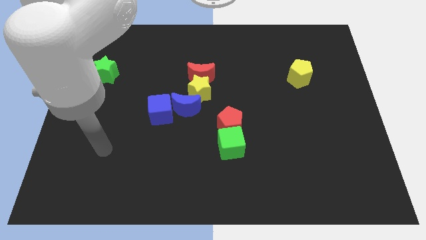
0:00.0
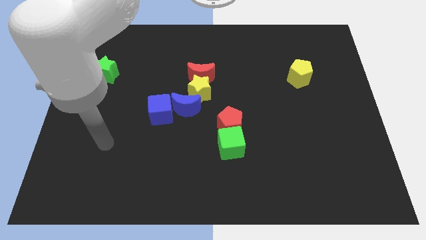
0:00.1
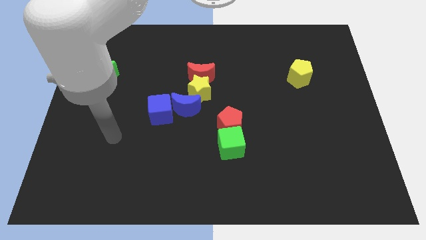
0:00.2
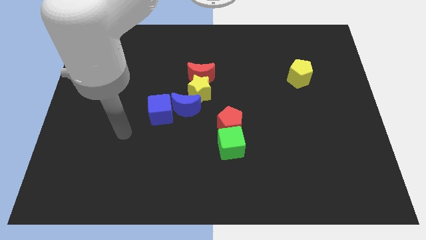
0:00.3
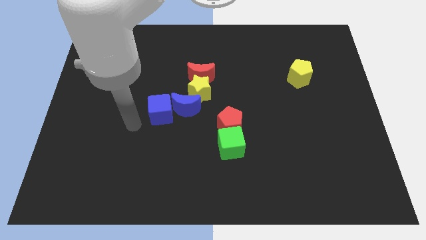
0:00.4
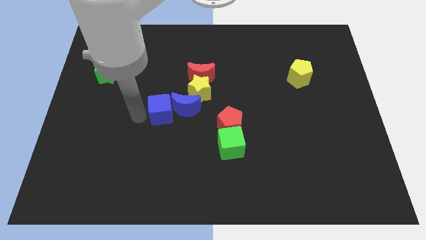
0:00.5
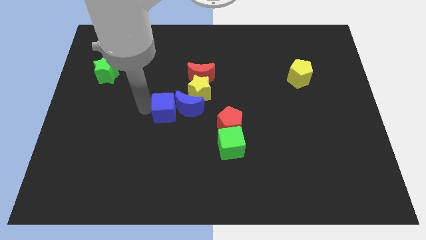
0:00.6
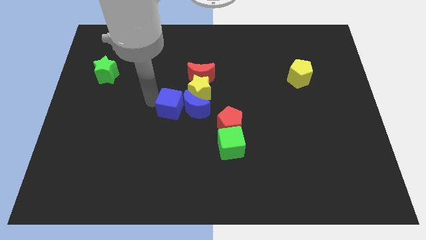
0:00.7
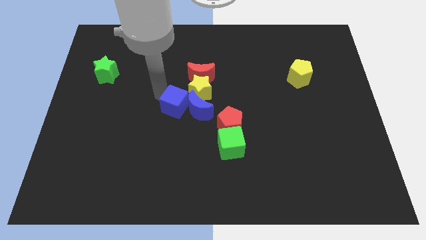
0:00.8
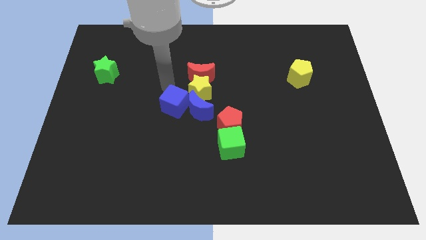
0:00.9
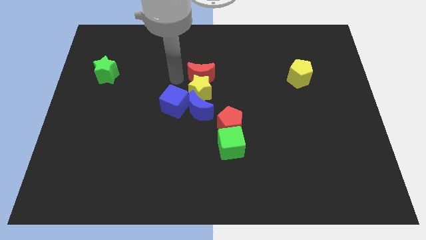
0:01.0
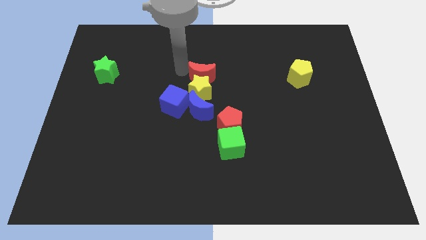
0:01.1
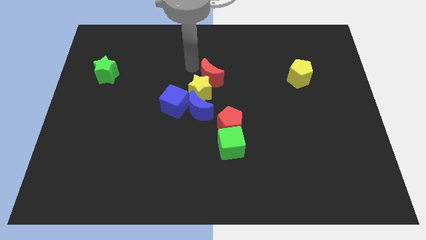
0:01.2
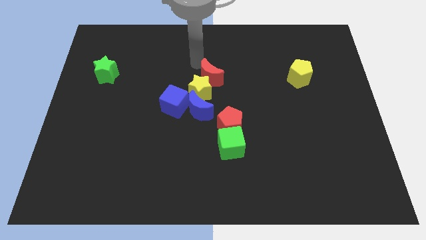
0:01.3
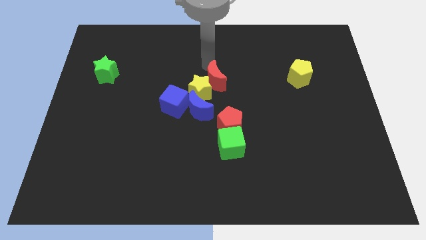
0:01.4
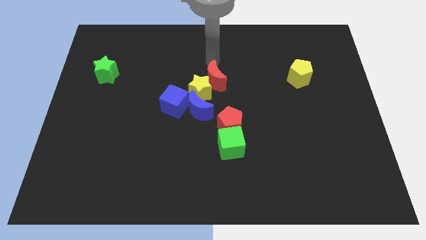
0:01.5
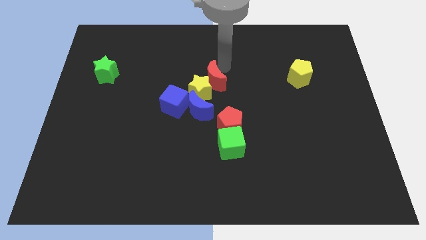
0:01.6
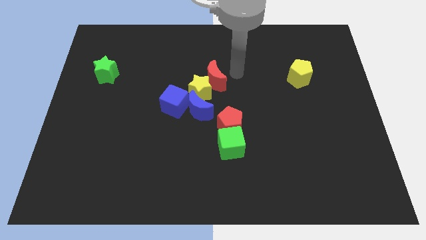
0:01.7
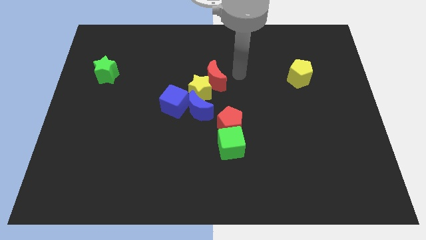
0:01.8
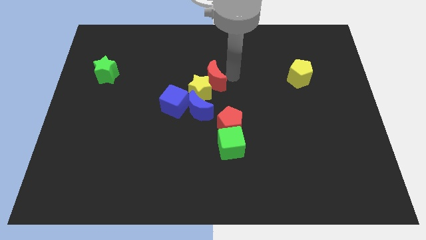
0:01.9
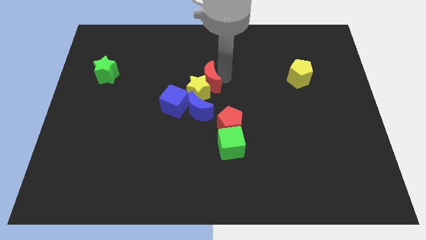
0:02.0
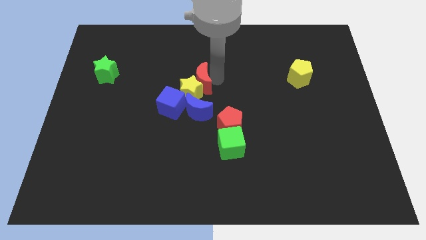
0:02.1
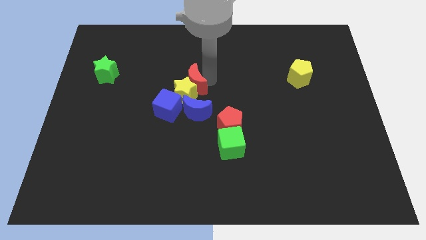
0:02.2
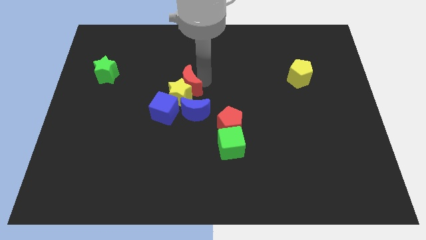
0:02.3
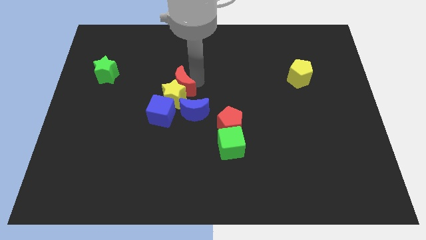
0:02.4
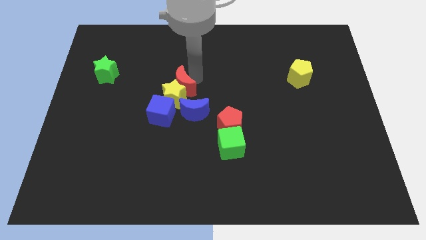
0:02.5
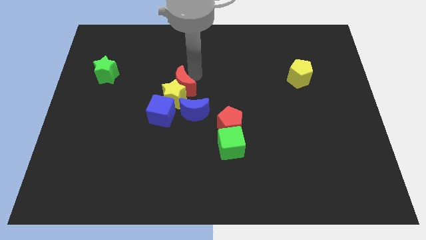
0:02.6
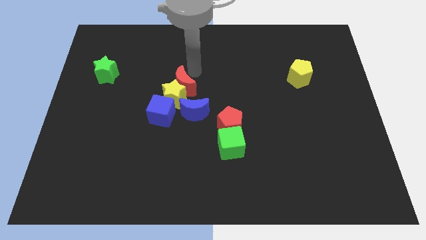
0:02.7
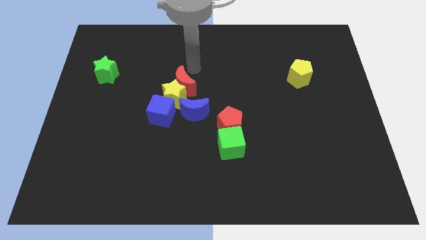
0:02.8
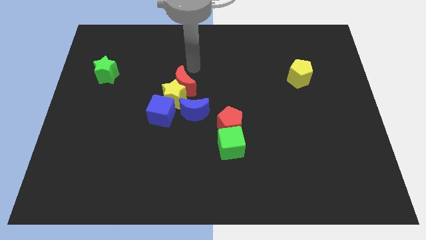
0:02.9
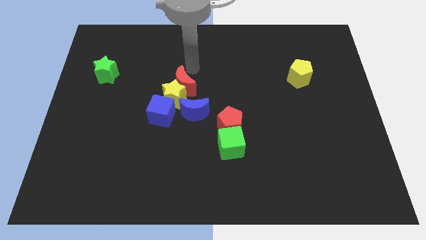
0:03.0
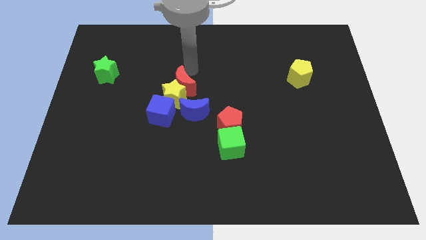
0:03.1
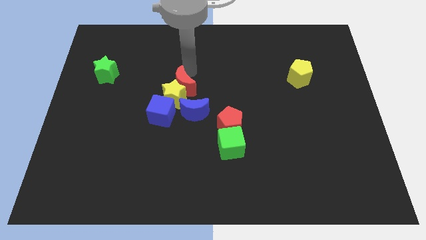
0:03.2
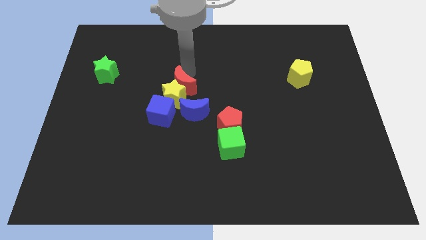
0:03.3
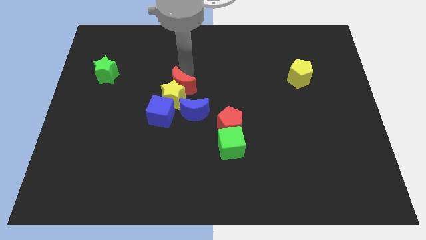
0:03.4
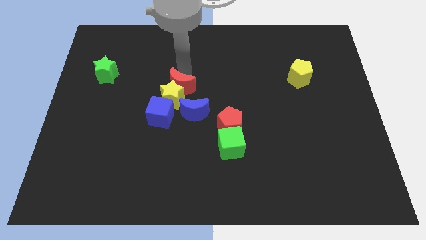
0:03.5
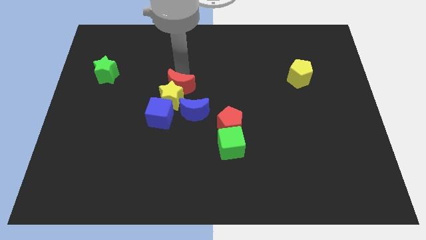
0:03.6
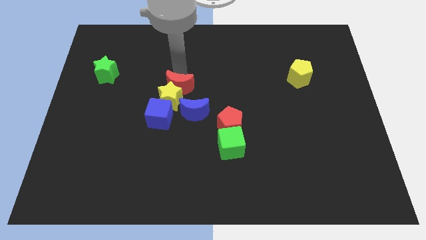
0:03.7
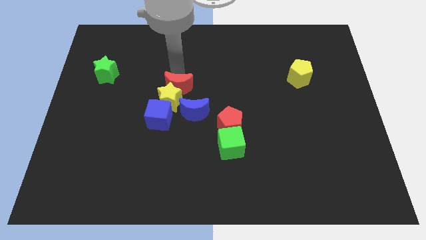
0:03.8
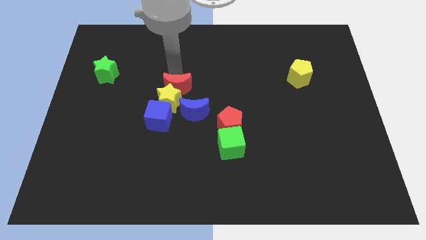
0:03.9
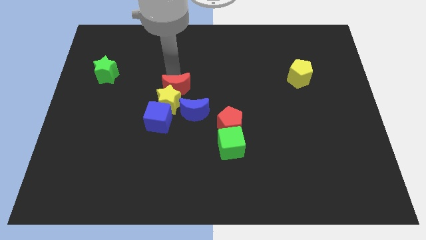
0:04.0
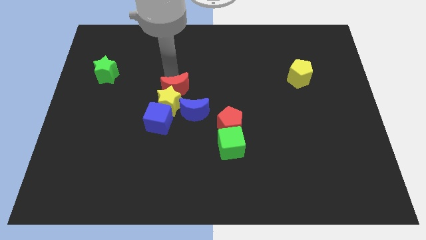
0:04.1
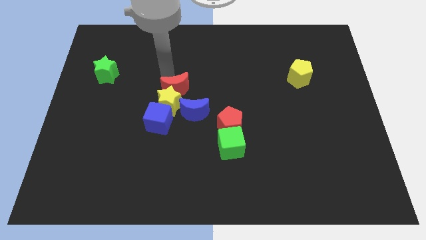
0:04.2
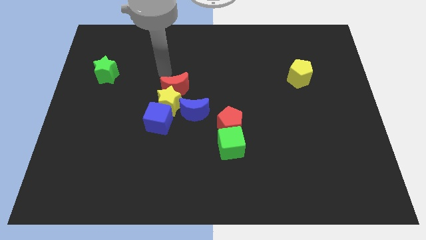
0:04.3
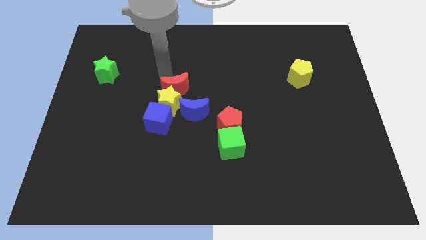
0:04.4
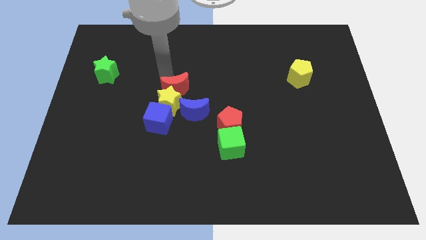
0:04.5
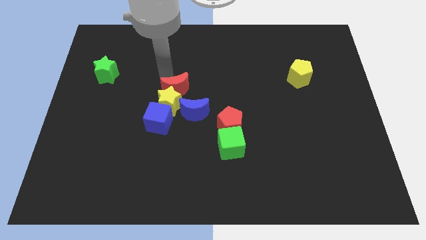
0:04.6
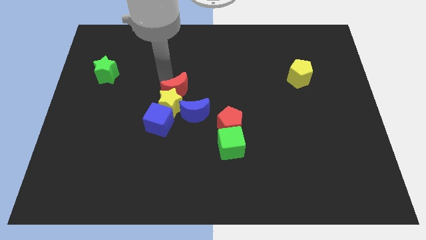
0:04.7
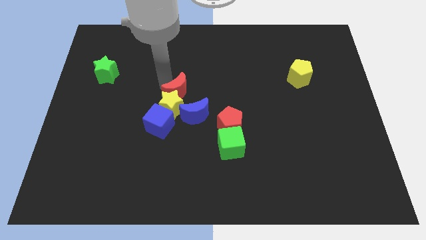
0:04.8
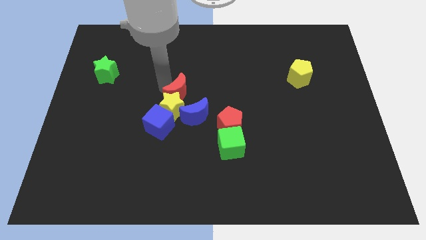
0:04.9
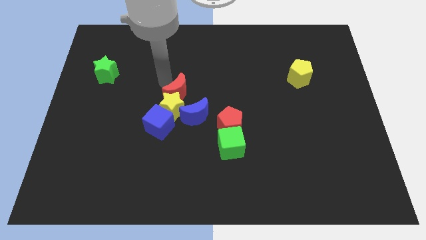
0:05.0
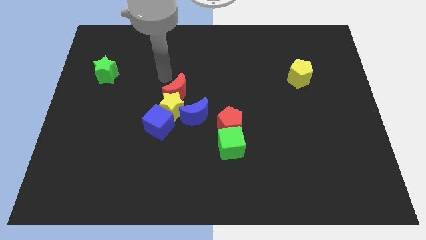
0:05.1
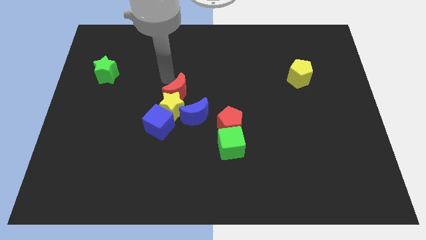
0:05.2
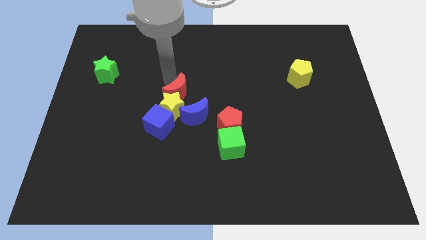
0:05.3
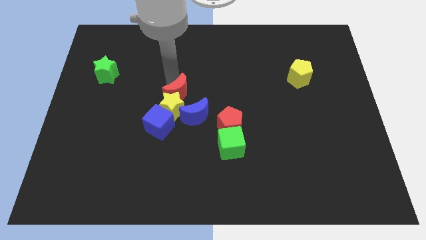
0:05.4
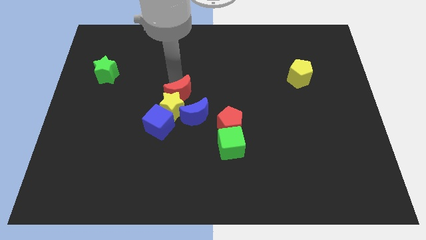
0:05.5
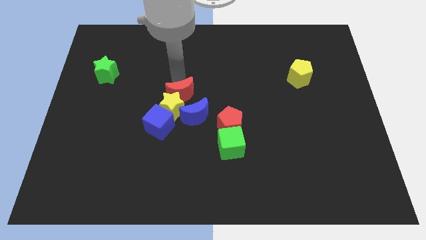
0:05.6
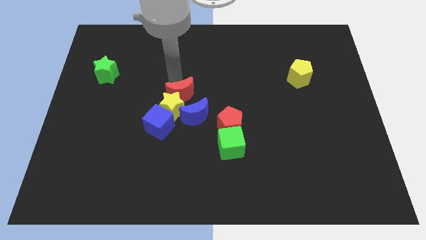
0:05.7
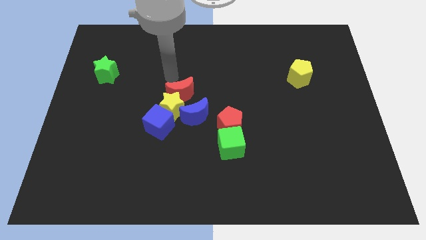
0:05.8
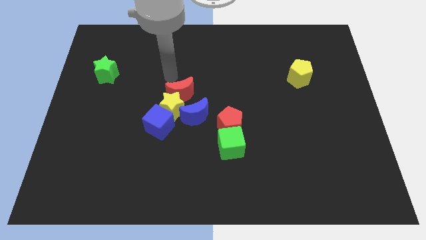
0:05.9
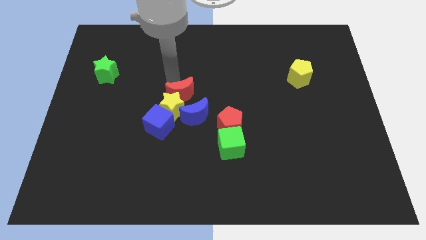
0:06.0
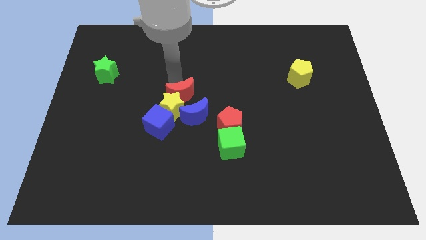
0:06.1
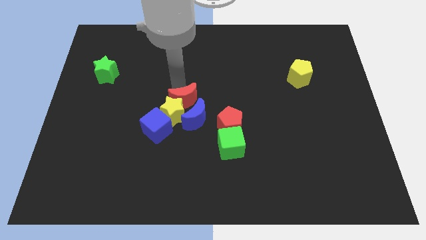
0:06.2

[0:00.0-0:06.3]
put the red moon next to the blue moon
